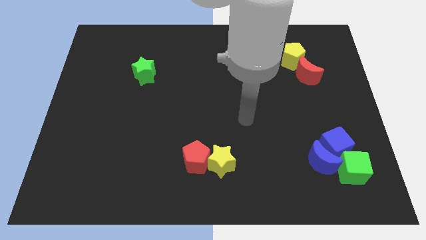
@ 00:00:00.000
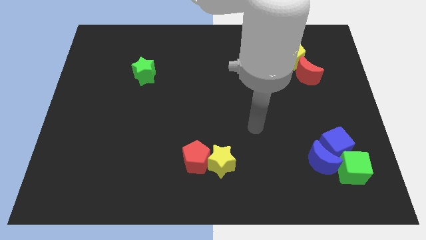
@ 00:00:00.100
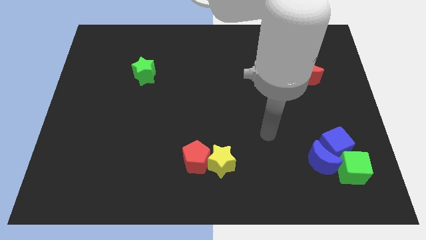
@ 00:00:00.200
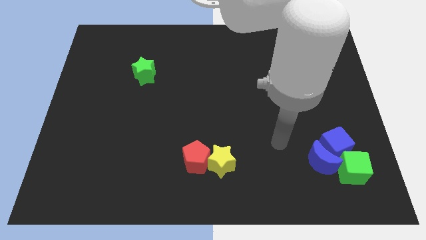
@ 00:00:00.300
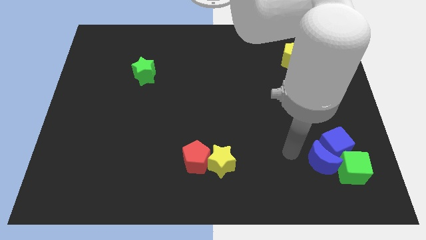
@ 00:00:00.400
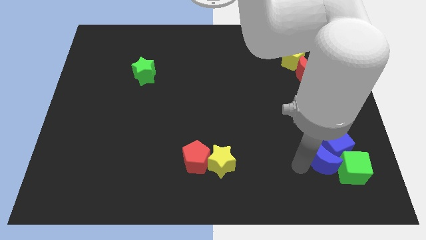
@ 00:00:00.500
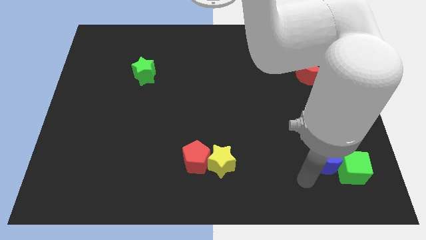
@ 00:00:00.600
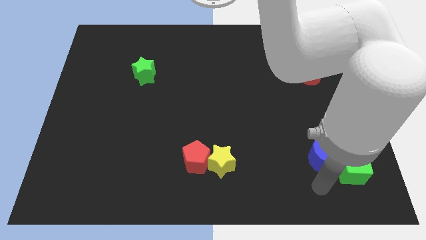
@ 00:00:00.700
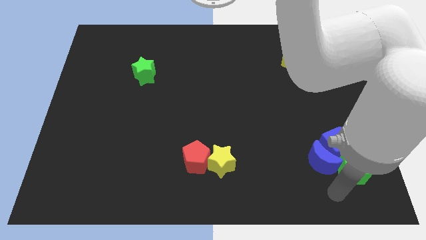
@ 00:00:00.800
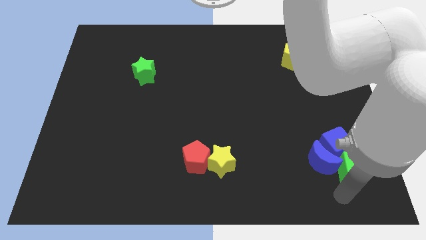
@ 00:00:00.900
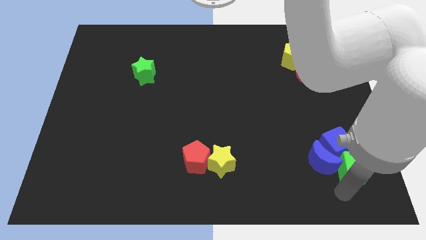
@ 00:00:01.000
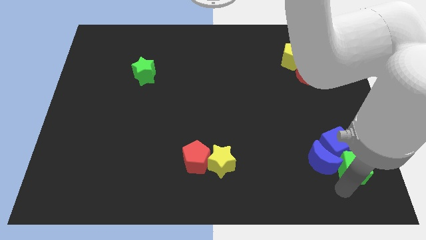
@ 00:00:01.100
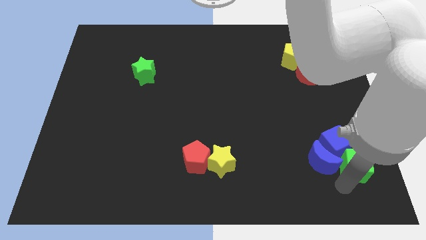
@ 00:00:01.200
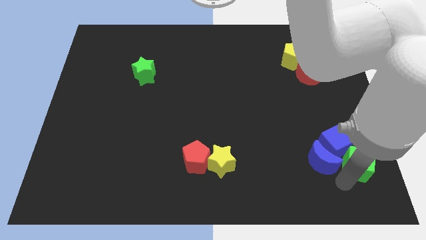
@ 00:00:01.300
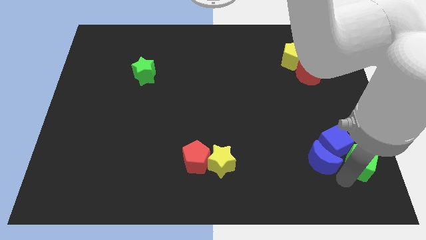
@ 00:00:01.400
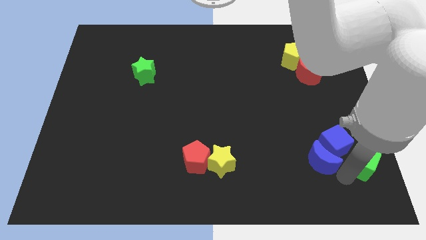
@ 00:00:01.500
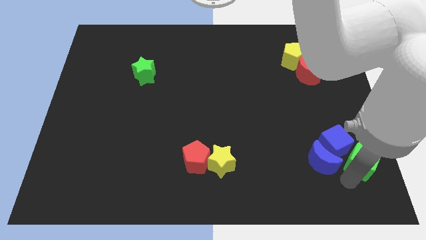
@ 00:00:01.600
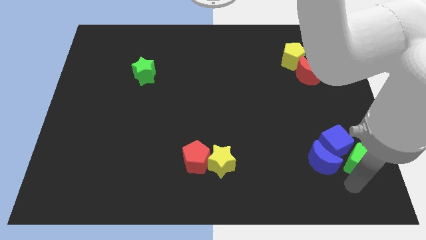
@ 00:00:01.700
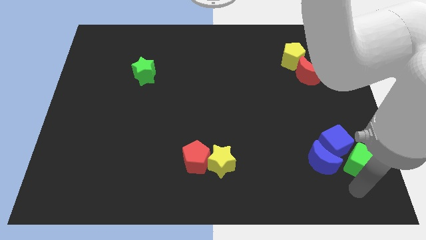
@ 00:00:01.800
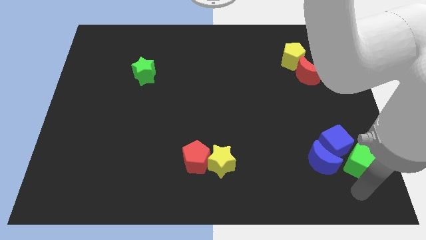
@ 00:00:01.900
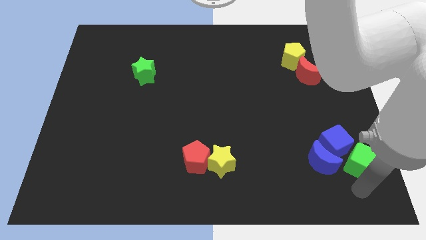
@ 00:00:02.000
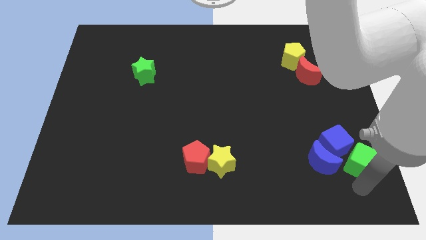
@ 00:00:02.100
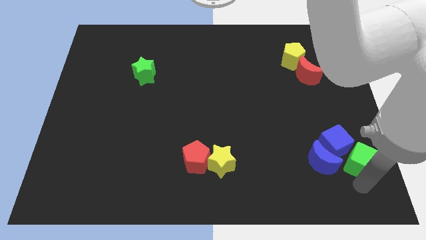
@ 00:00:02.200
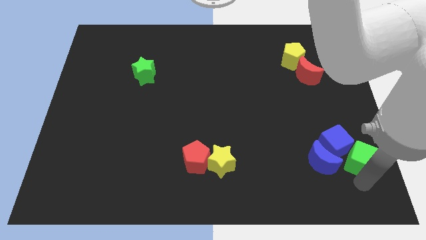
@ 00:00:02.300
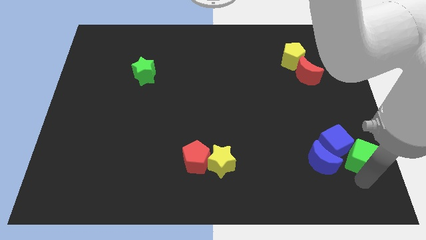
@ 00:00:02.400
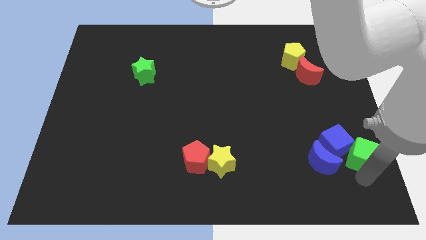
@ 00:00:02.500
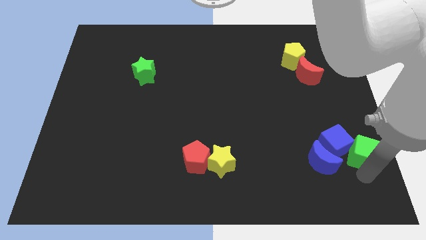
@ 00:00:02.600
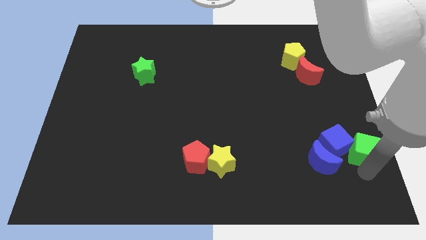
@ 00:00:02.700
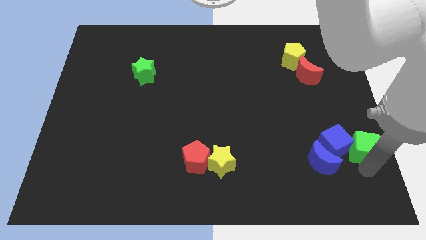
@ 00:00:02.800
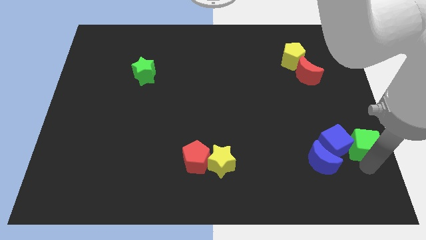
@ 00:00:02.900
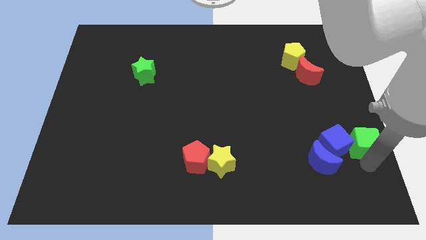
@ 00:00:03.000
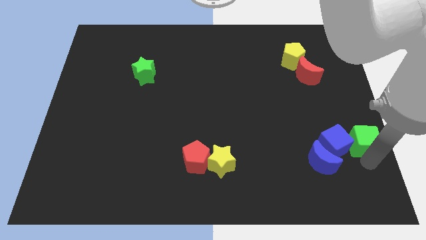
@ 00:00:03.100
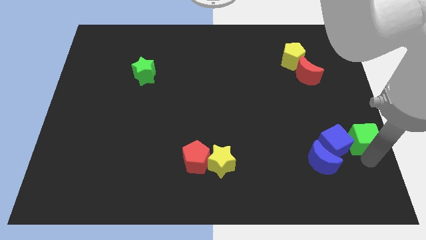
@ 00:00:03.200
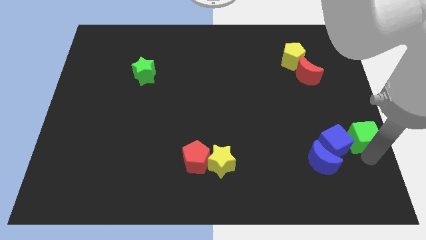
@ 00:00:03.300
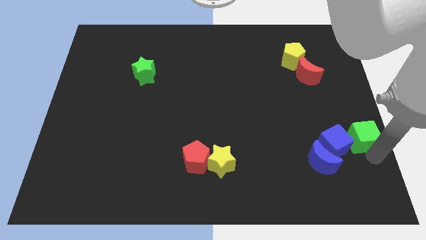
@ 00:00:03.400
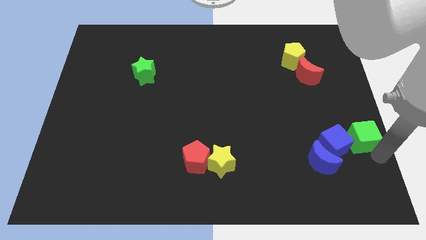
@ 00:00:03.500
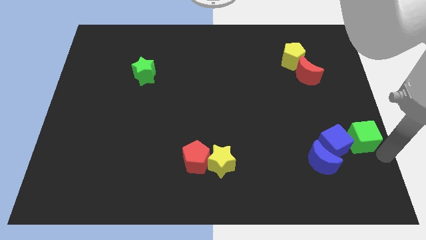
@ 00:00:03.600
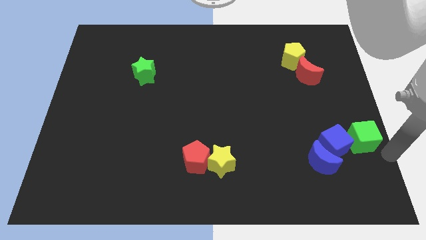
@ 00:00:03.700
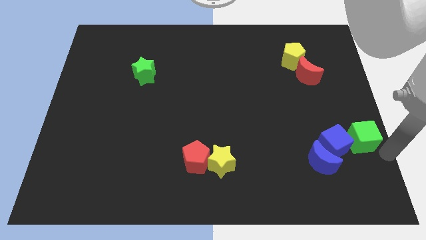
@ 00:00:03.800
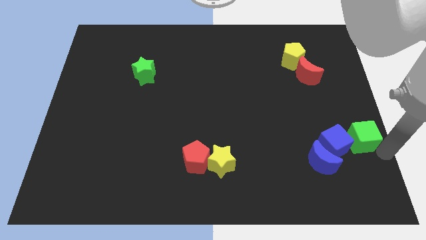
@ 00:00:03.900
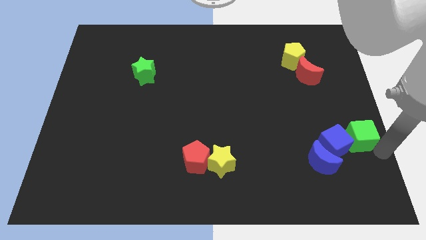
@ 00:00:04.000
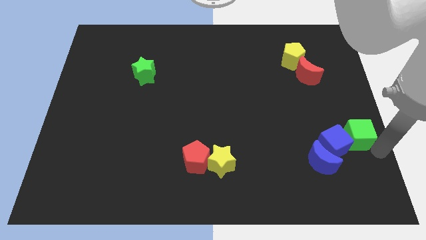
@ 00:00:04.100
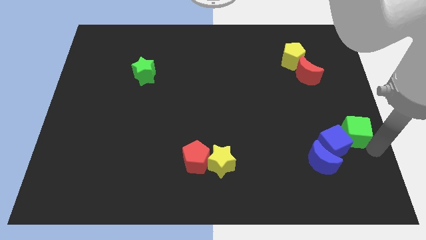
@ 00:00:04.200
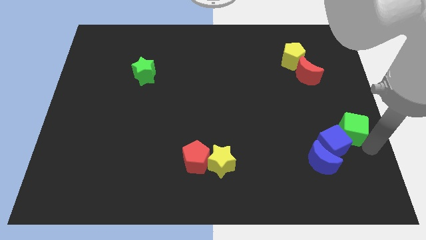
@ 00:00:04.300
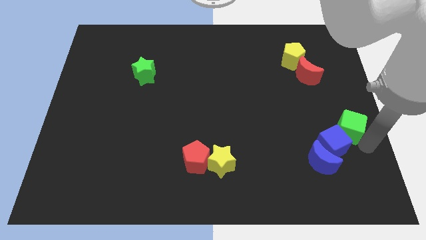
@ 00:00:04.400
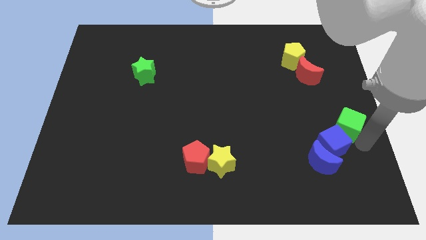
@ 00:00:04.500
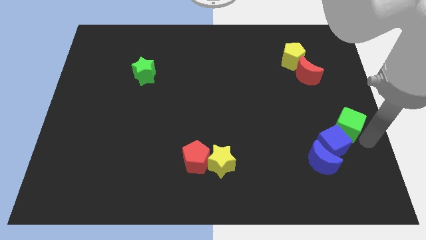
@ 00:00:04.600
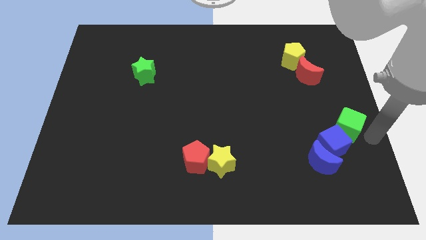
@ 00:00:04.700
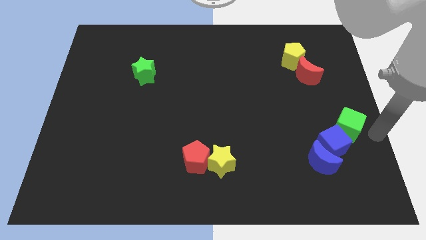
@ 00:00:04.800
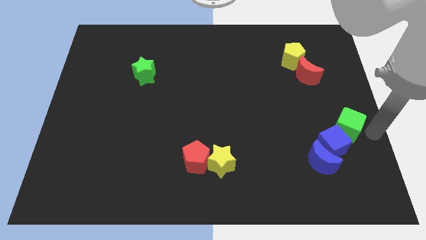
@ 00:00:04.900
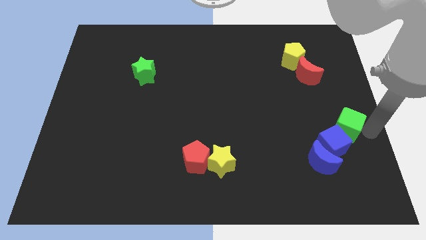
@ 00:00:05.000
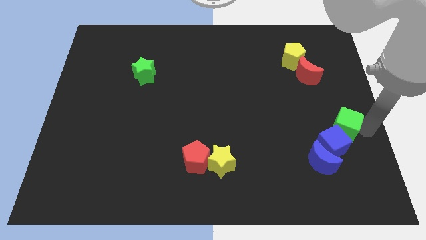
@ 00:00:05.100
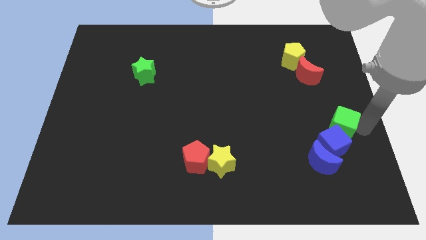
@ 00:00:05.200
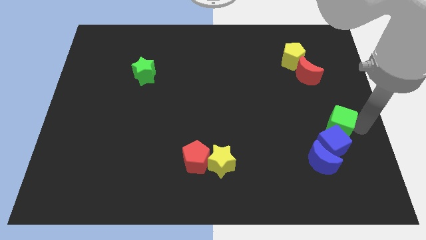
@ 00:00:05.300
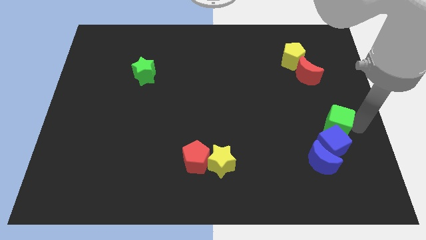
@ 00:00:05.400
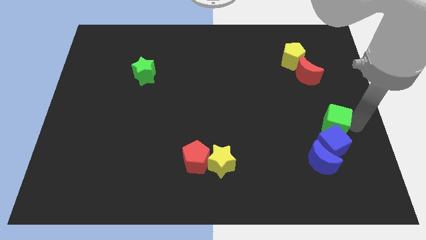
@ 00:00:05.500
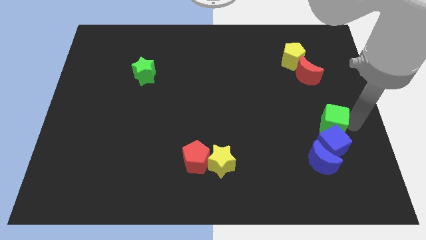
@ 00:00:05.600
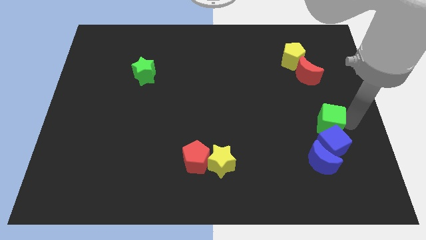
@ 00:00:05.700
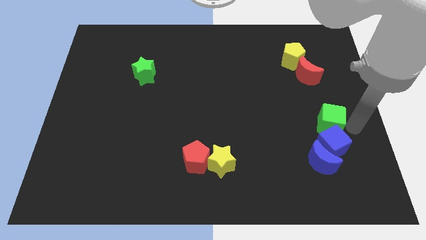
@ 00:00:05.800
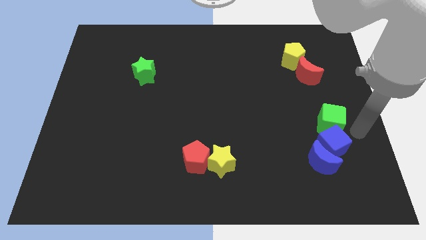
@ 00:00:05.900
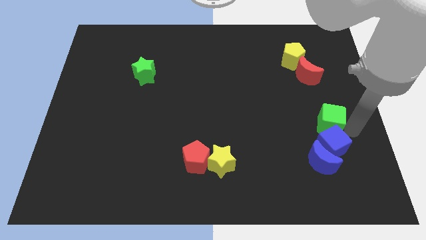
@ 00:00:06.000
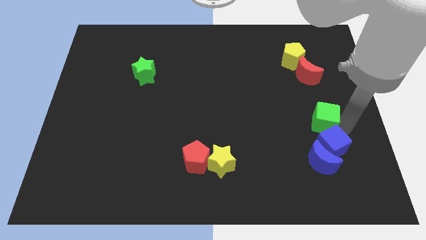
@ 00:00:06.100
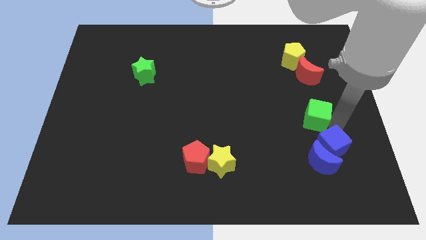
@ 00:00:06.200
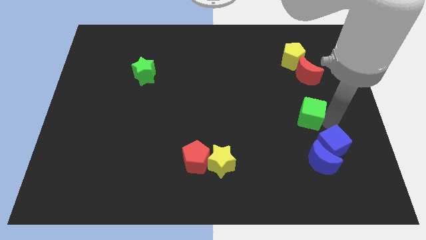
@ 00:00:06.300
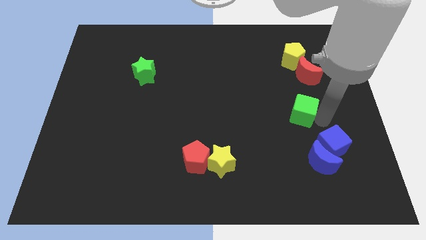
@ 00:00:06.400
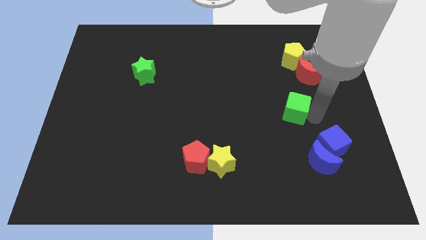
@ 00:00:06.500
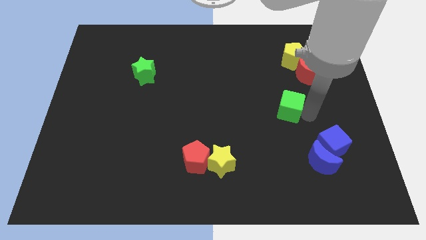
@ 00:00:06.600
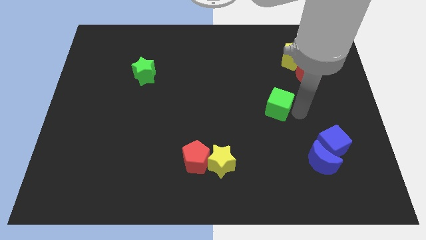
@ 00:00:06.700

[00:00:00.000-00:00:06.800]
slide the green cube upwards and left diagonally

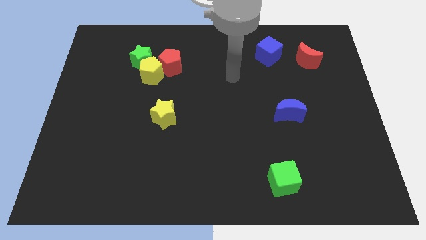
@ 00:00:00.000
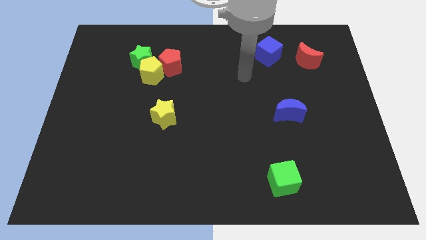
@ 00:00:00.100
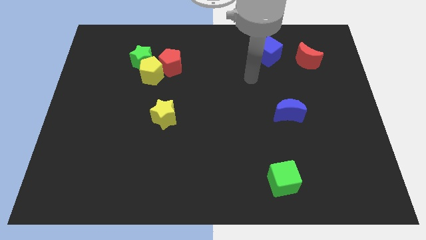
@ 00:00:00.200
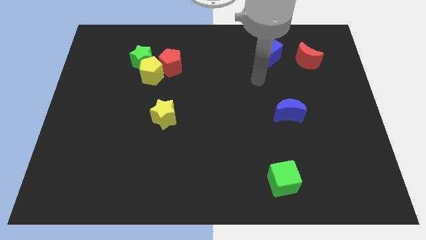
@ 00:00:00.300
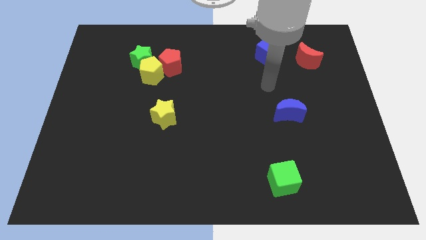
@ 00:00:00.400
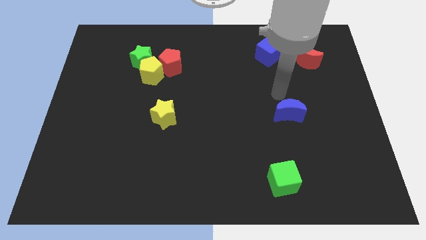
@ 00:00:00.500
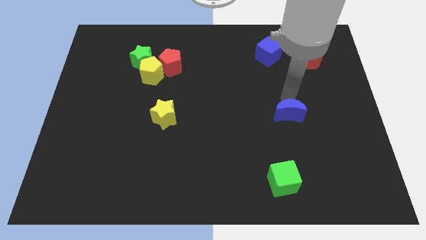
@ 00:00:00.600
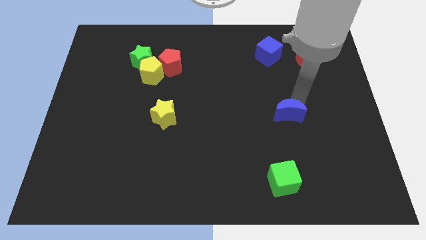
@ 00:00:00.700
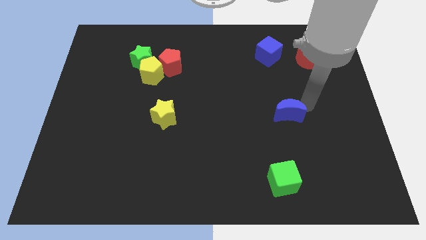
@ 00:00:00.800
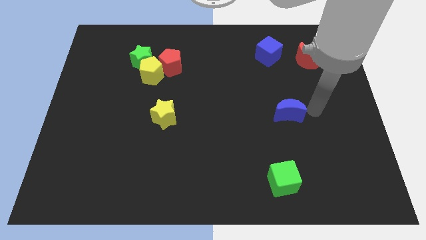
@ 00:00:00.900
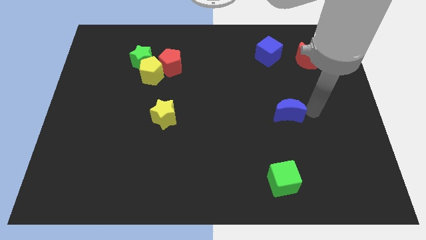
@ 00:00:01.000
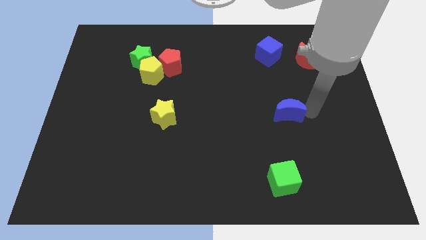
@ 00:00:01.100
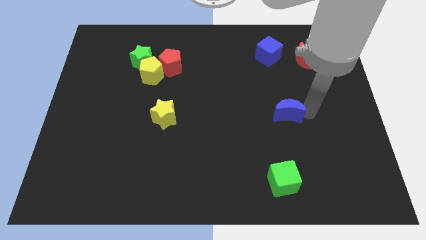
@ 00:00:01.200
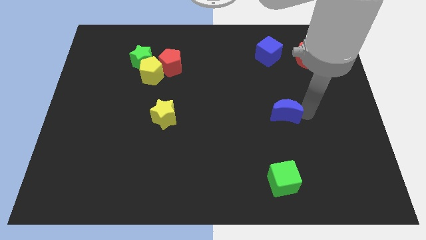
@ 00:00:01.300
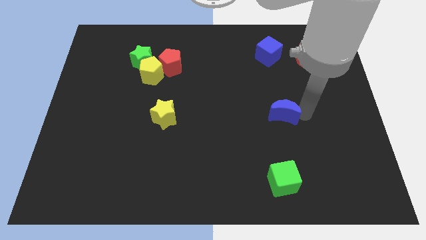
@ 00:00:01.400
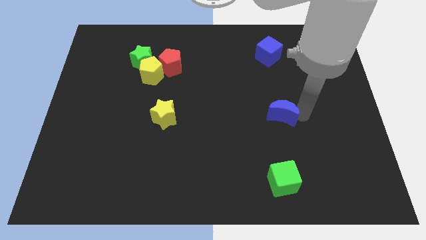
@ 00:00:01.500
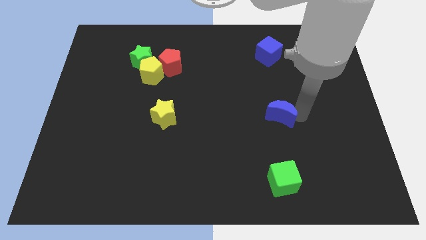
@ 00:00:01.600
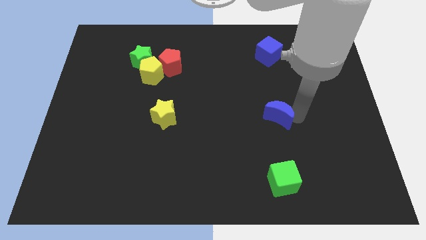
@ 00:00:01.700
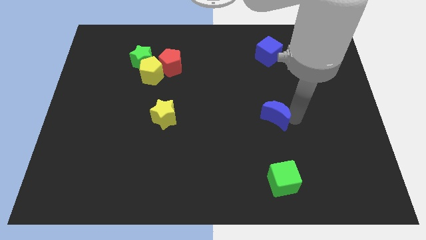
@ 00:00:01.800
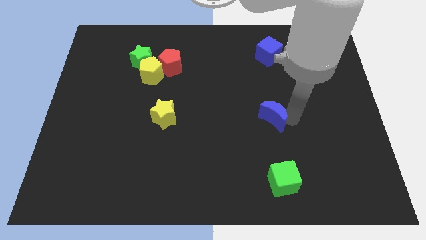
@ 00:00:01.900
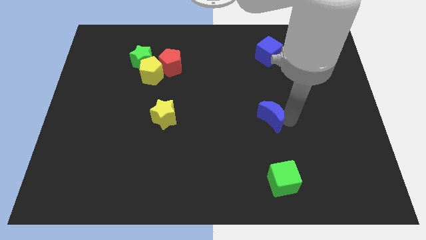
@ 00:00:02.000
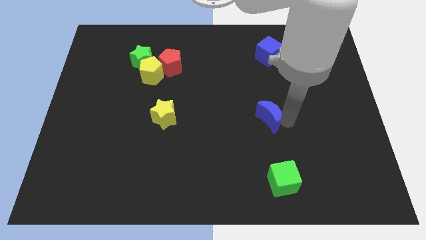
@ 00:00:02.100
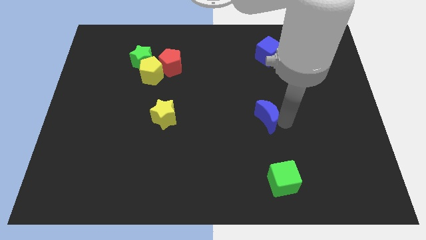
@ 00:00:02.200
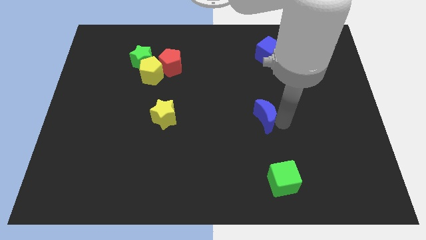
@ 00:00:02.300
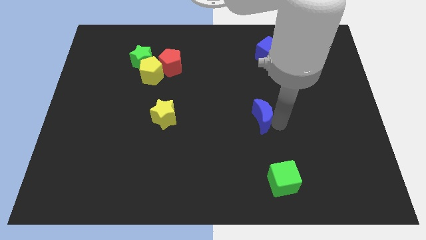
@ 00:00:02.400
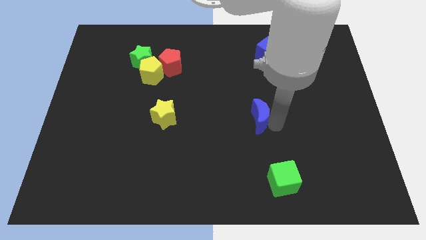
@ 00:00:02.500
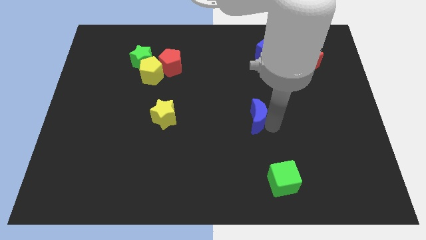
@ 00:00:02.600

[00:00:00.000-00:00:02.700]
slide the blue moon to the left slightly
